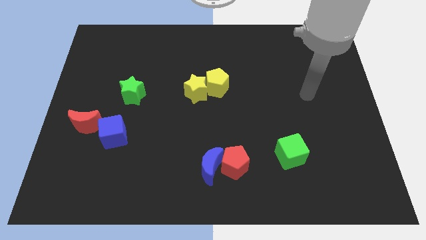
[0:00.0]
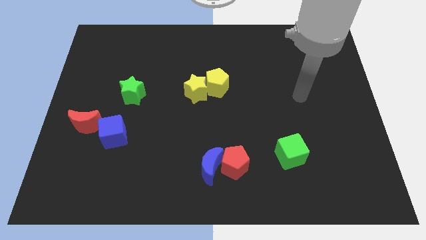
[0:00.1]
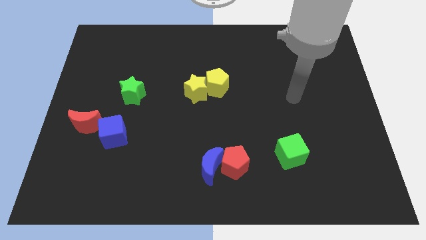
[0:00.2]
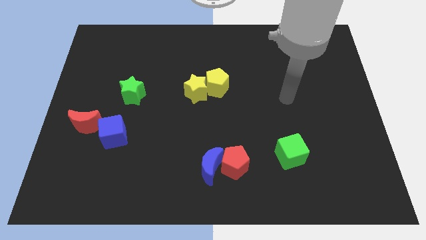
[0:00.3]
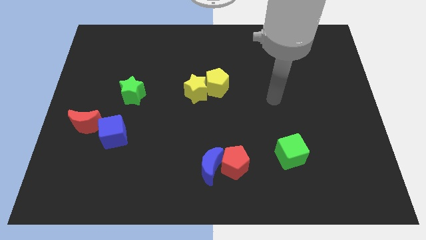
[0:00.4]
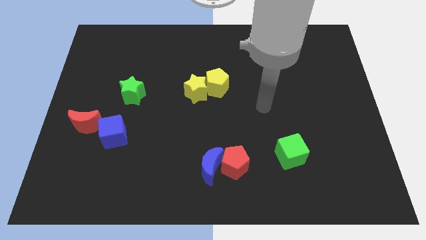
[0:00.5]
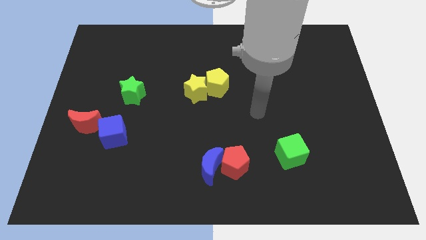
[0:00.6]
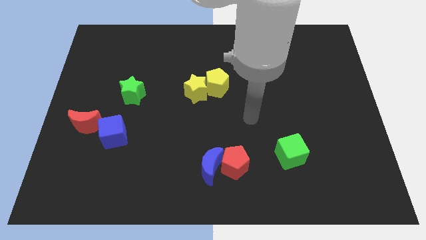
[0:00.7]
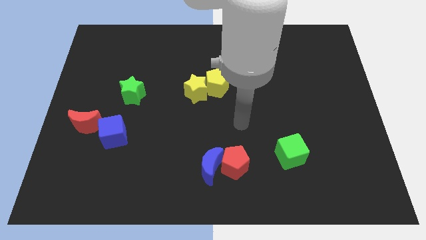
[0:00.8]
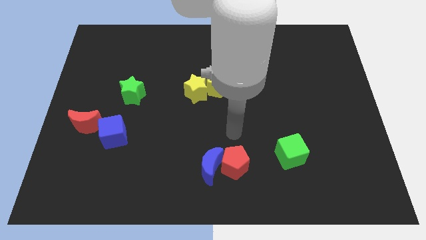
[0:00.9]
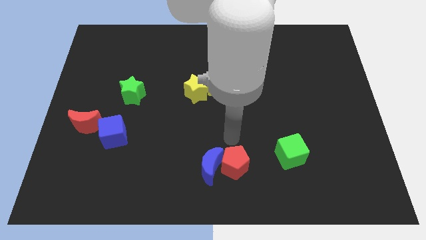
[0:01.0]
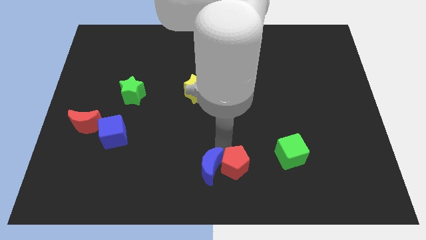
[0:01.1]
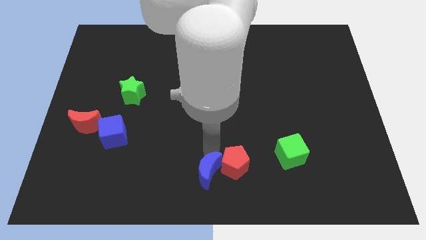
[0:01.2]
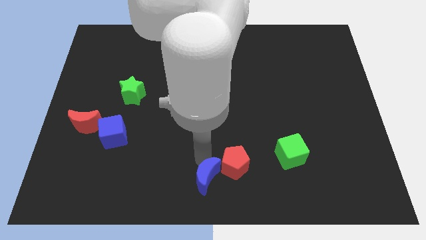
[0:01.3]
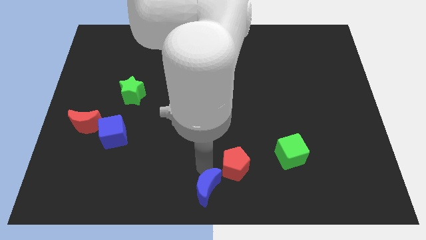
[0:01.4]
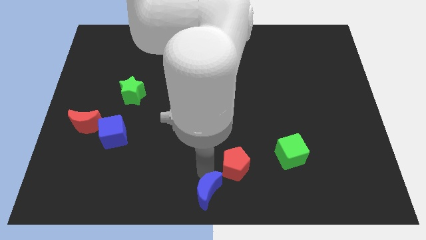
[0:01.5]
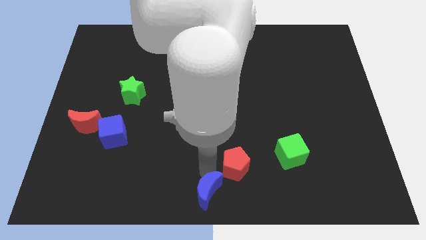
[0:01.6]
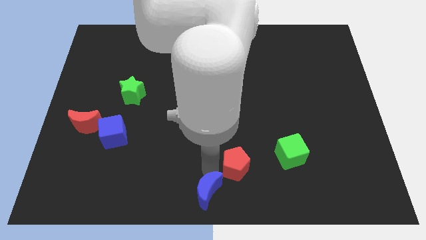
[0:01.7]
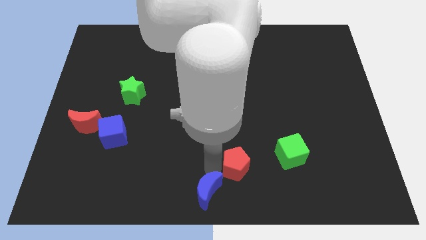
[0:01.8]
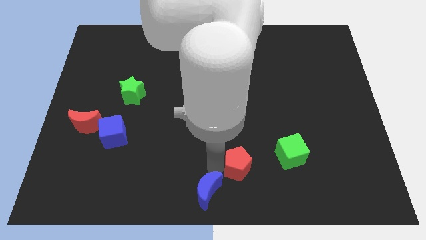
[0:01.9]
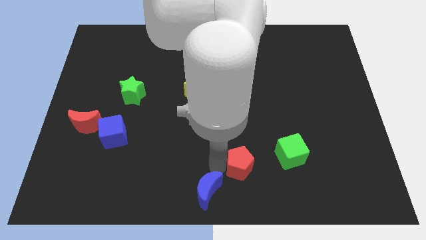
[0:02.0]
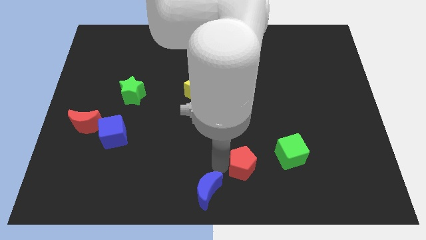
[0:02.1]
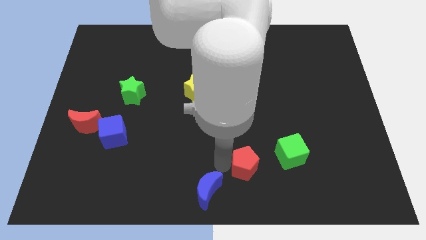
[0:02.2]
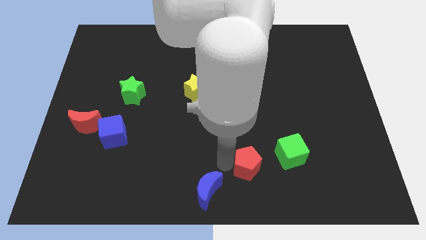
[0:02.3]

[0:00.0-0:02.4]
separate the red pentagon from the blue moon

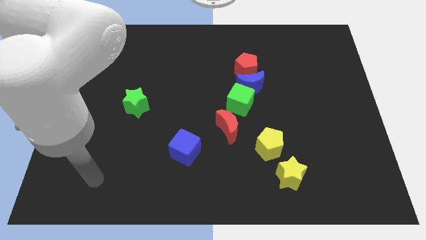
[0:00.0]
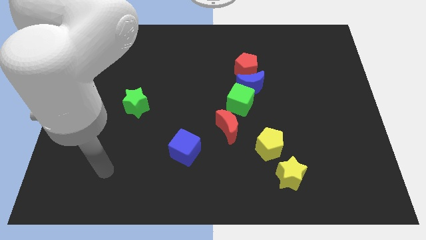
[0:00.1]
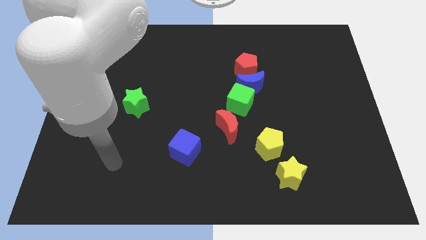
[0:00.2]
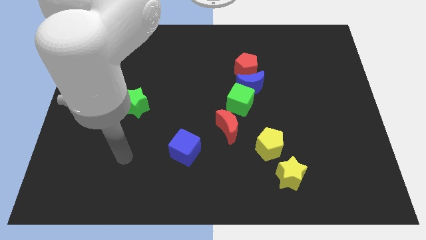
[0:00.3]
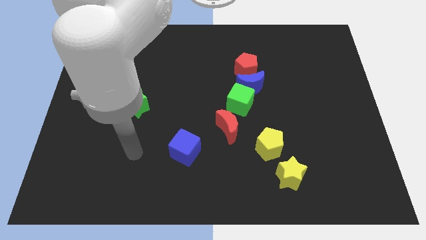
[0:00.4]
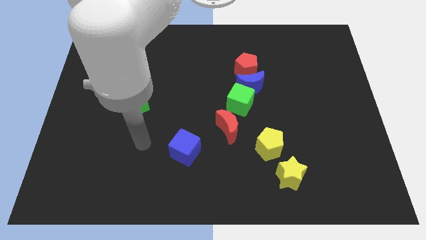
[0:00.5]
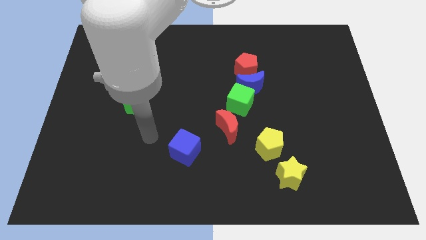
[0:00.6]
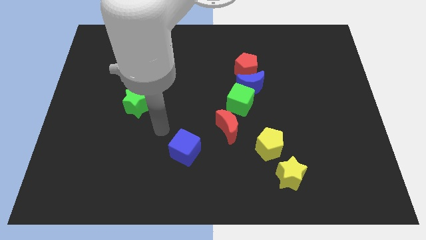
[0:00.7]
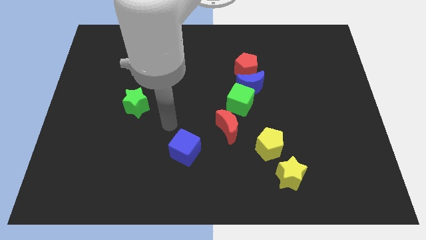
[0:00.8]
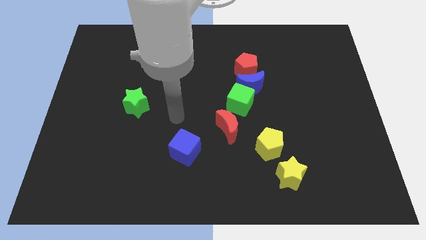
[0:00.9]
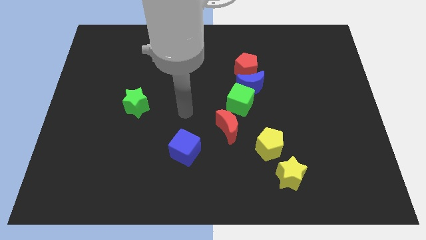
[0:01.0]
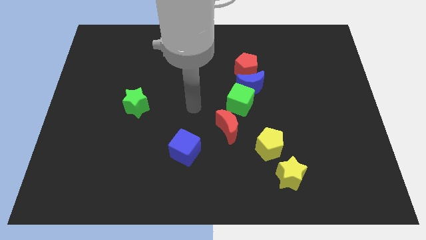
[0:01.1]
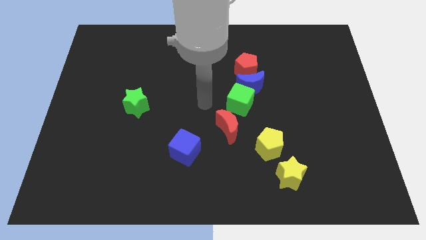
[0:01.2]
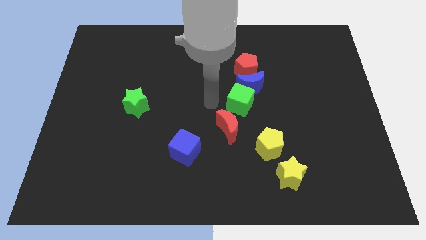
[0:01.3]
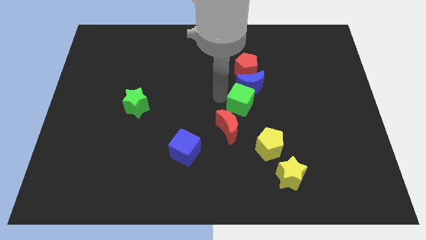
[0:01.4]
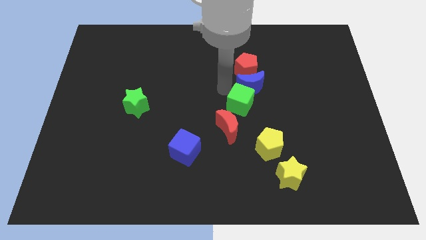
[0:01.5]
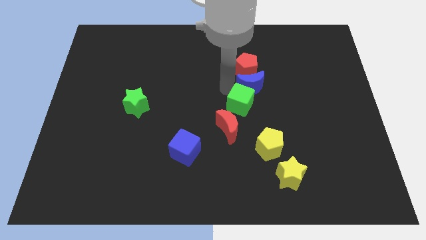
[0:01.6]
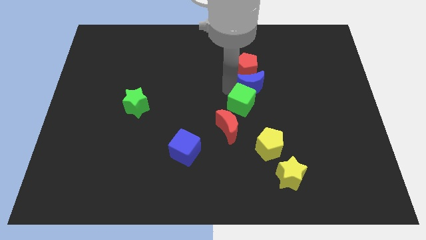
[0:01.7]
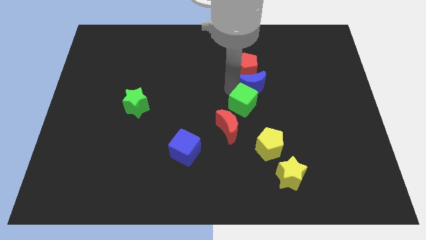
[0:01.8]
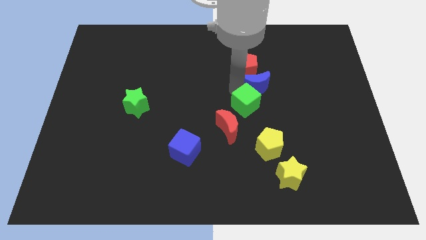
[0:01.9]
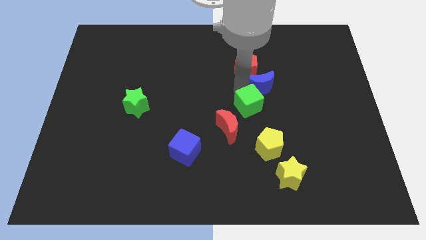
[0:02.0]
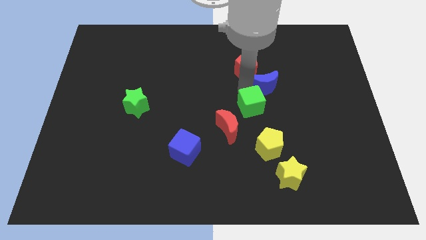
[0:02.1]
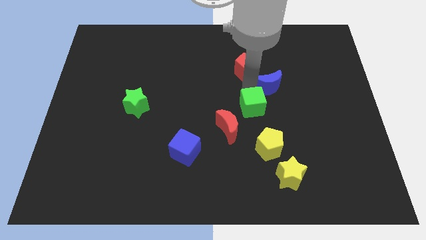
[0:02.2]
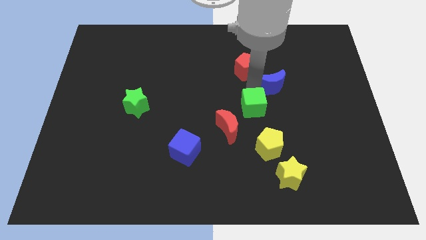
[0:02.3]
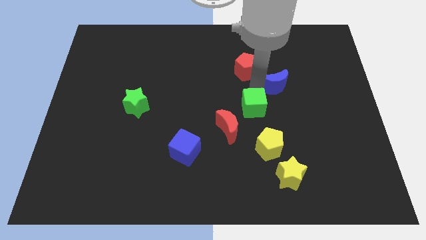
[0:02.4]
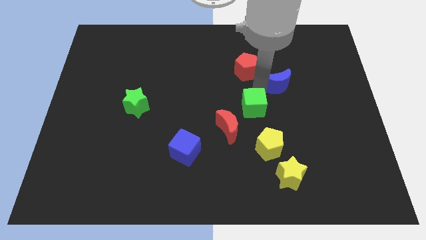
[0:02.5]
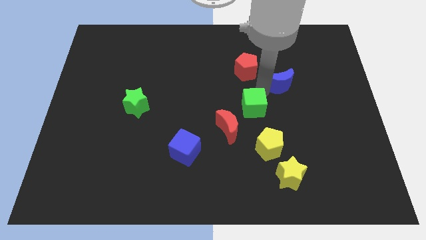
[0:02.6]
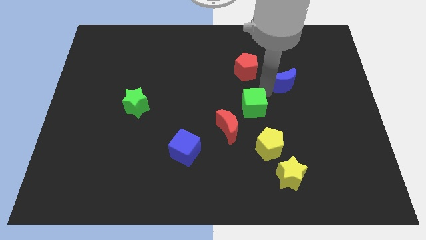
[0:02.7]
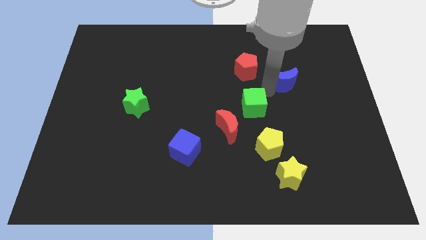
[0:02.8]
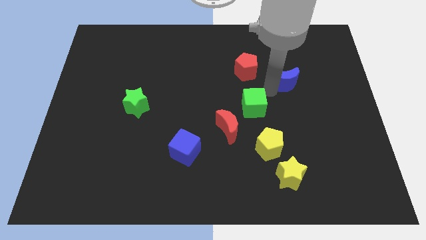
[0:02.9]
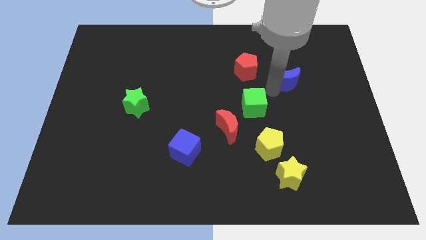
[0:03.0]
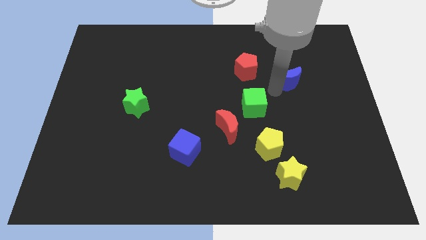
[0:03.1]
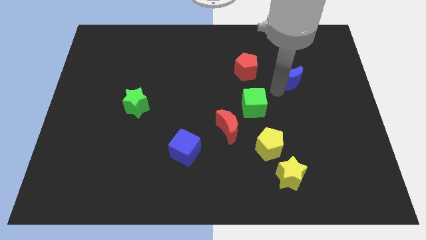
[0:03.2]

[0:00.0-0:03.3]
separate the blue moon from the green cube and red pentagon

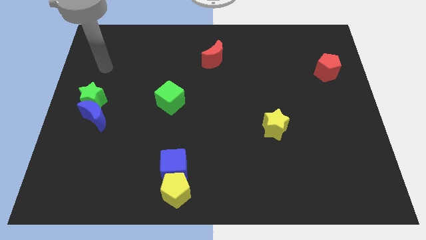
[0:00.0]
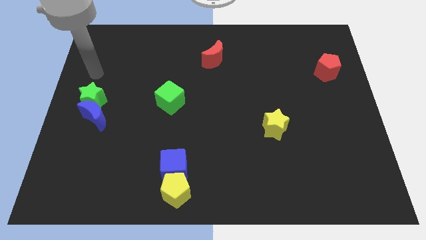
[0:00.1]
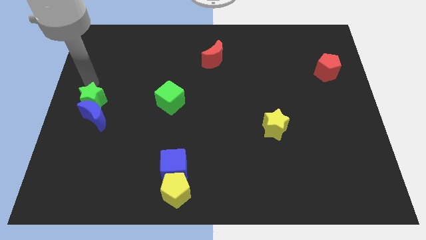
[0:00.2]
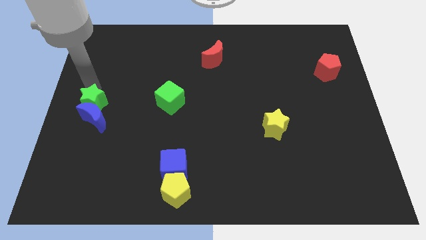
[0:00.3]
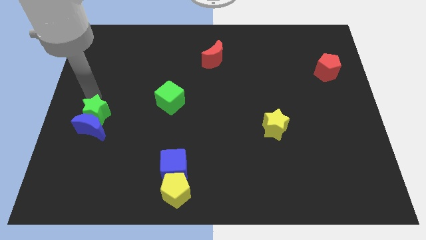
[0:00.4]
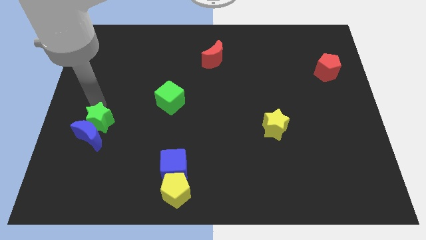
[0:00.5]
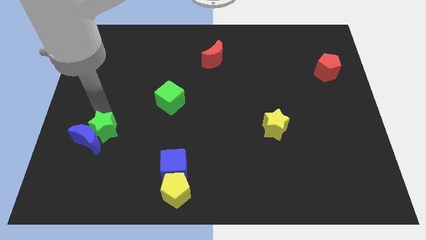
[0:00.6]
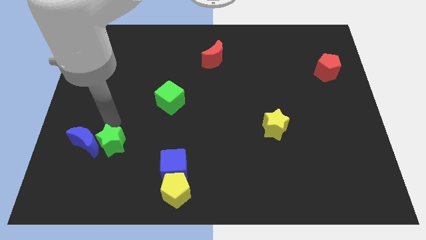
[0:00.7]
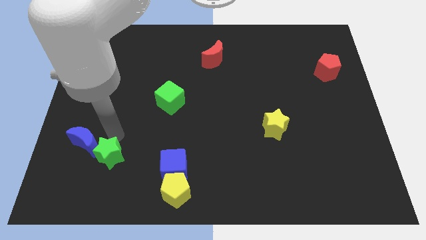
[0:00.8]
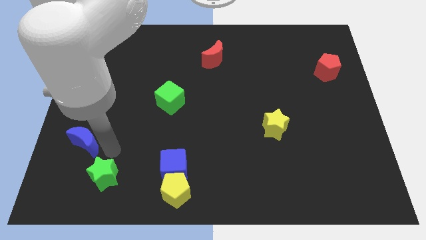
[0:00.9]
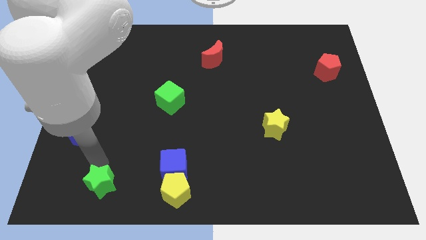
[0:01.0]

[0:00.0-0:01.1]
separate the blue moon from the green star

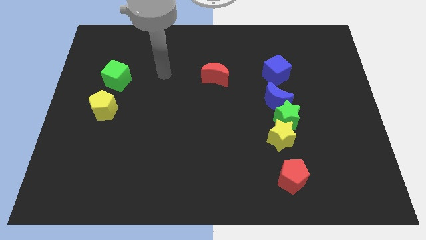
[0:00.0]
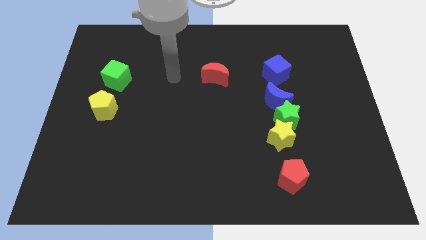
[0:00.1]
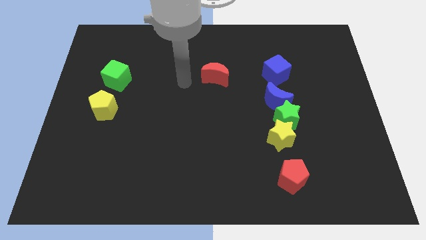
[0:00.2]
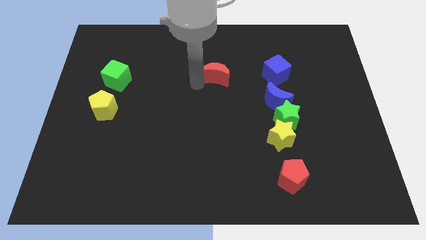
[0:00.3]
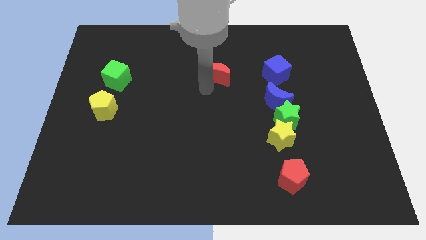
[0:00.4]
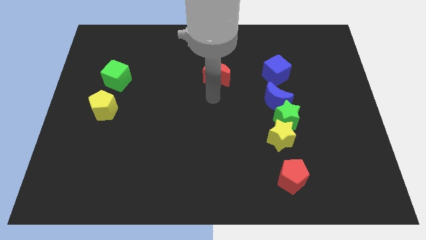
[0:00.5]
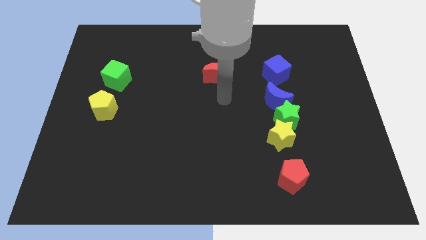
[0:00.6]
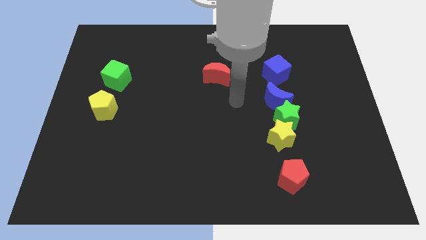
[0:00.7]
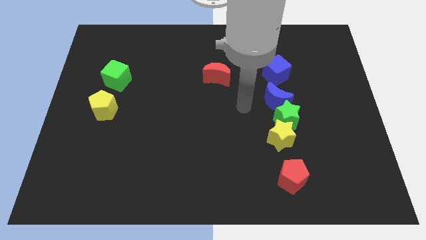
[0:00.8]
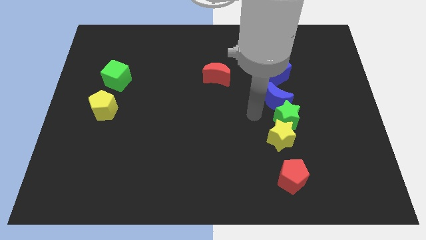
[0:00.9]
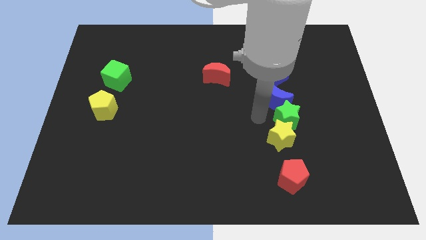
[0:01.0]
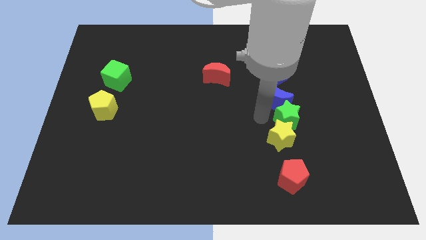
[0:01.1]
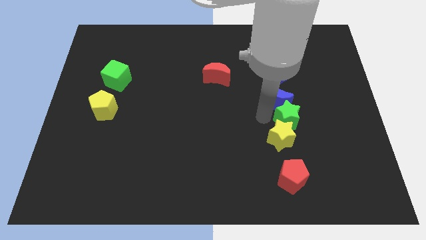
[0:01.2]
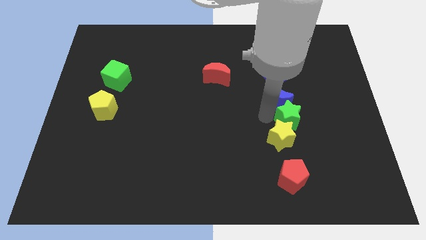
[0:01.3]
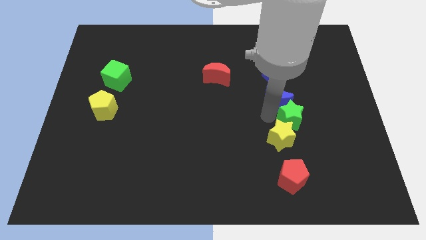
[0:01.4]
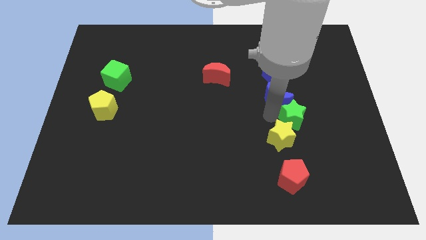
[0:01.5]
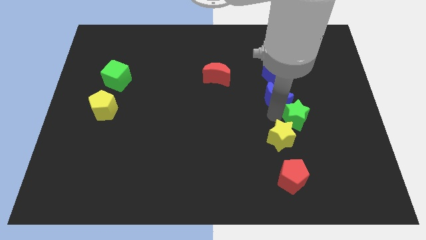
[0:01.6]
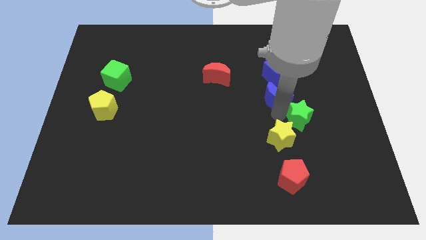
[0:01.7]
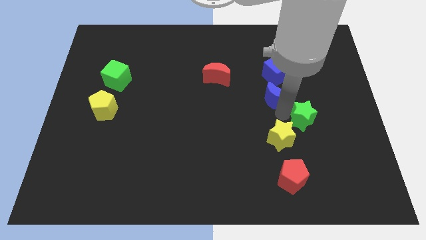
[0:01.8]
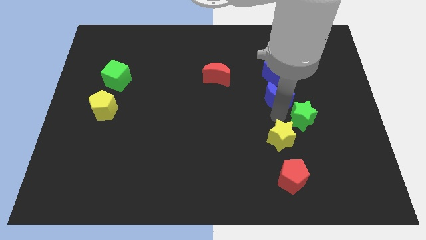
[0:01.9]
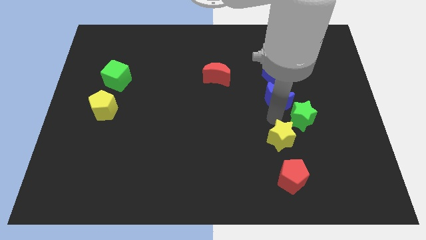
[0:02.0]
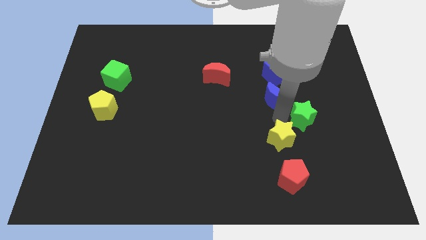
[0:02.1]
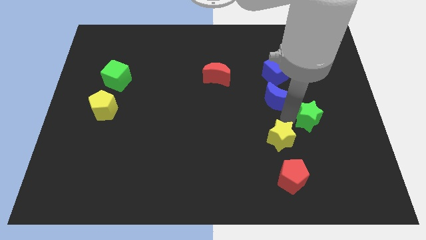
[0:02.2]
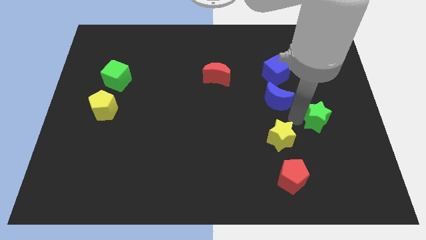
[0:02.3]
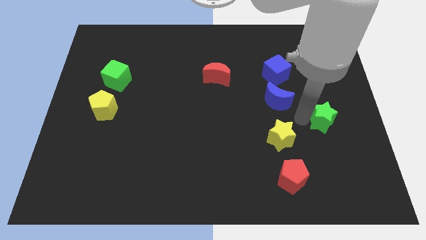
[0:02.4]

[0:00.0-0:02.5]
pull the green star apart from the yellow star and blue moon
